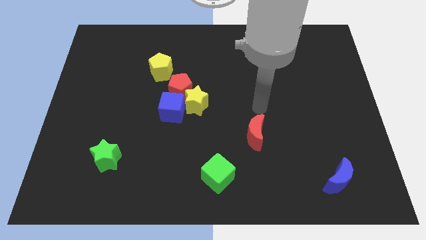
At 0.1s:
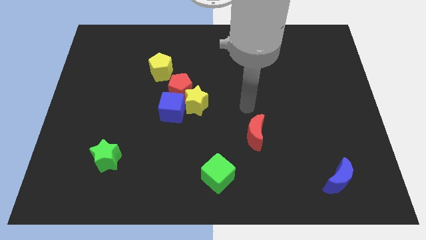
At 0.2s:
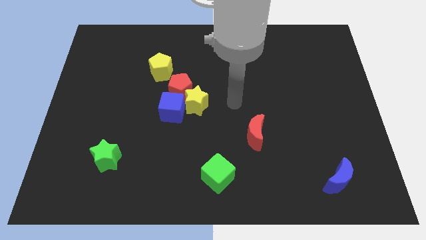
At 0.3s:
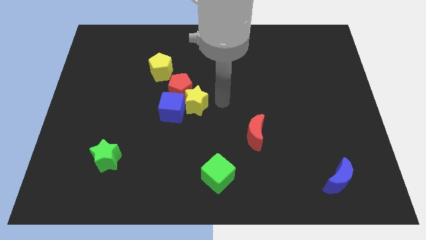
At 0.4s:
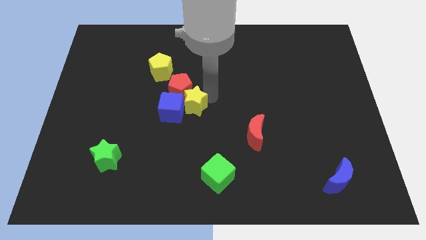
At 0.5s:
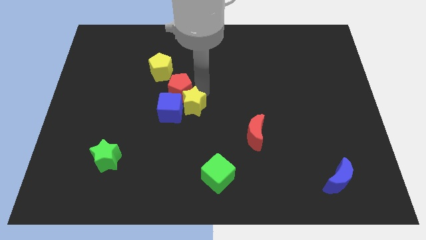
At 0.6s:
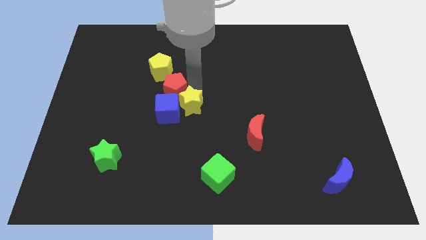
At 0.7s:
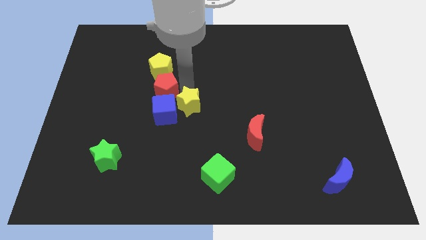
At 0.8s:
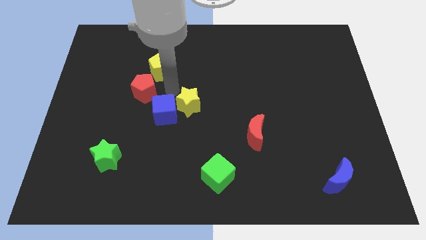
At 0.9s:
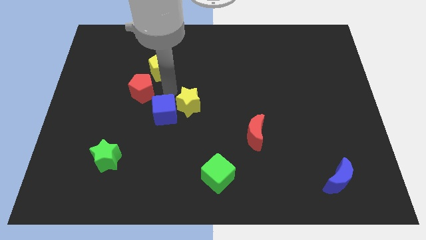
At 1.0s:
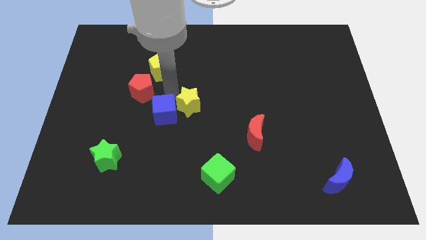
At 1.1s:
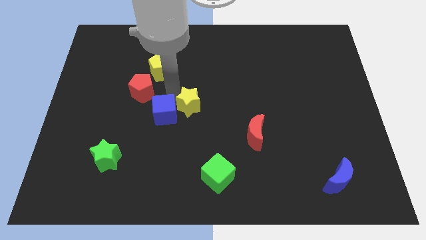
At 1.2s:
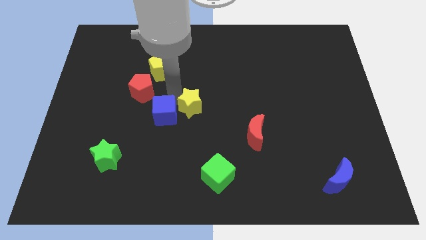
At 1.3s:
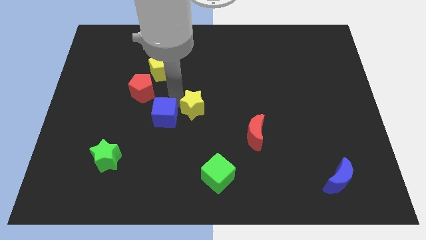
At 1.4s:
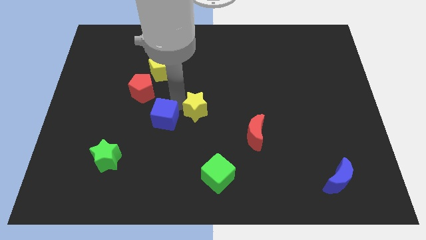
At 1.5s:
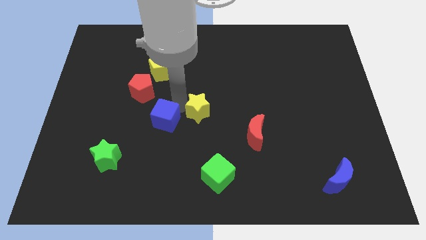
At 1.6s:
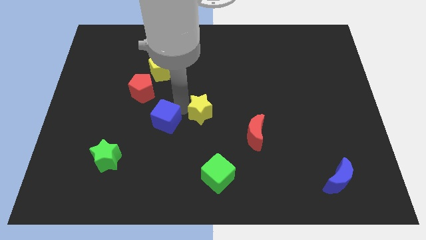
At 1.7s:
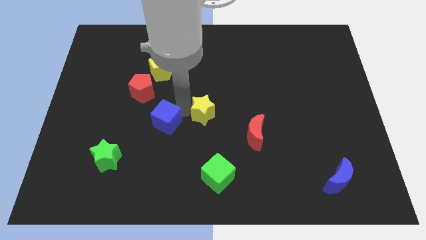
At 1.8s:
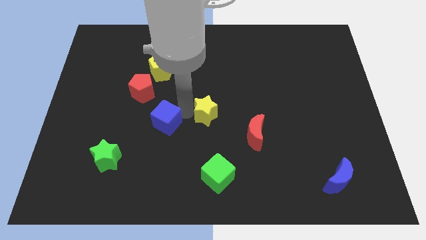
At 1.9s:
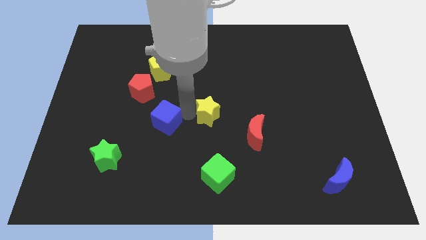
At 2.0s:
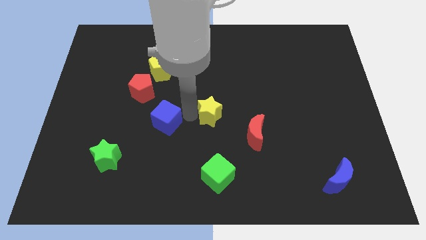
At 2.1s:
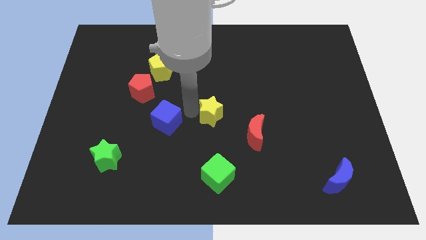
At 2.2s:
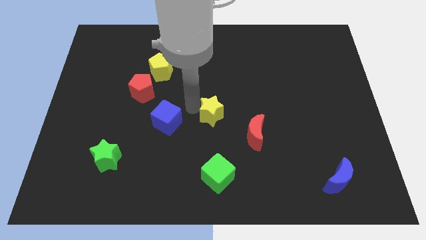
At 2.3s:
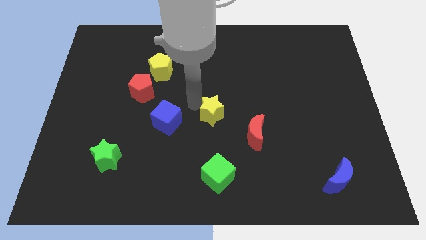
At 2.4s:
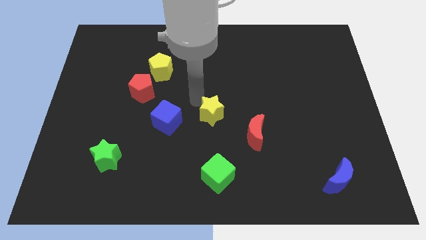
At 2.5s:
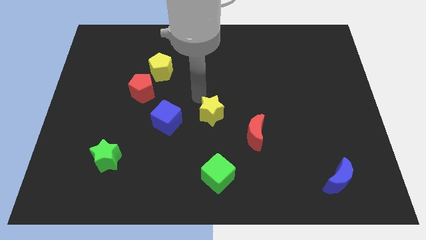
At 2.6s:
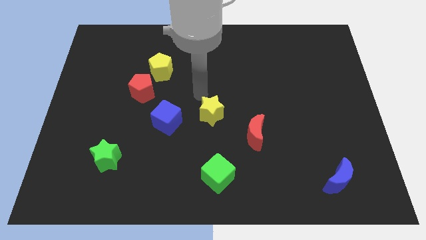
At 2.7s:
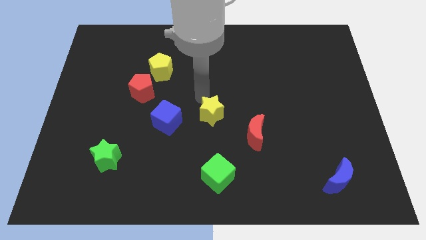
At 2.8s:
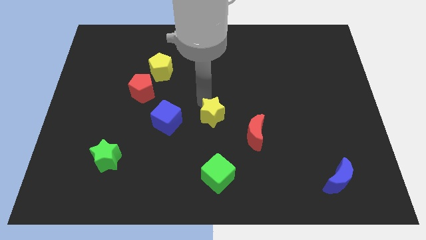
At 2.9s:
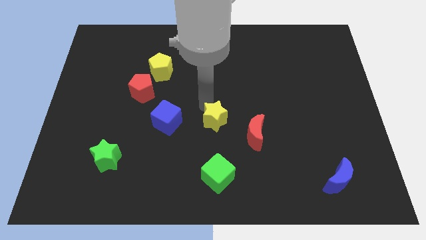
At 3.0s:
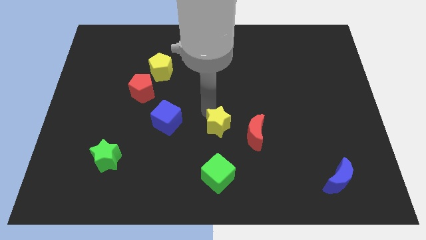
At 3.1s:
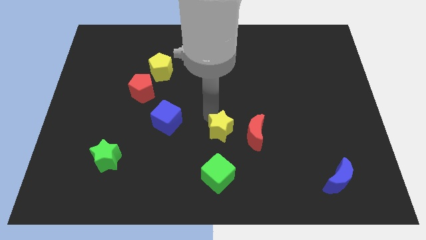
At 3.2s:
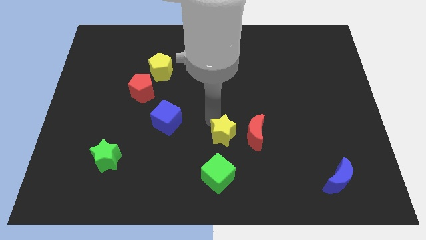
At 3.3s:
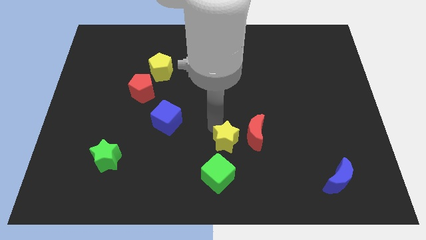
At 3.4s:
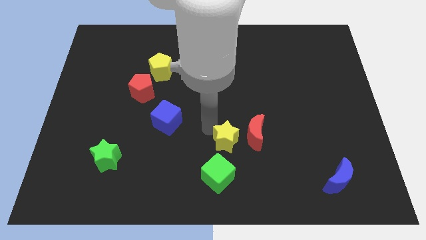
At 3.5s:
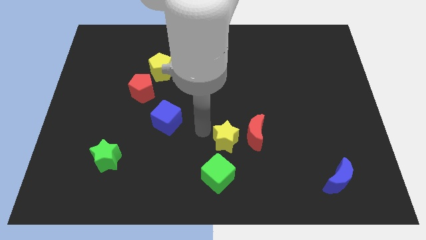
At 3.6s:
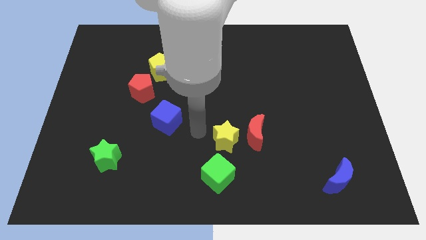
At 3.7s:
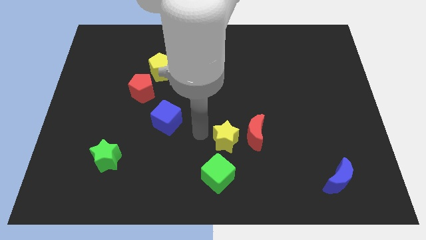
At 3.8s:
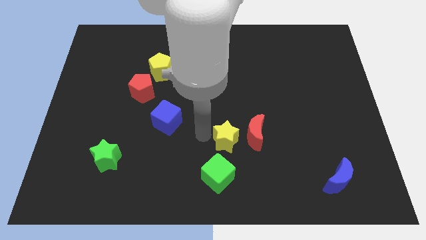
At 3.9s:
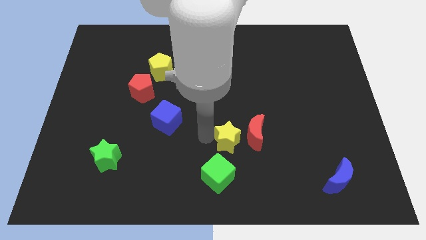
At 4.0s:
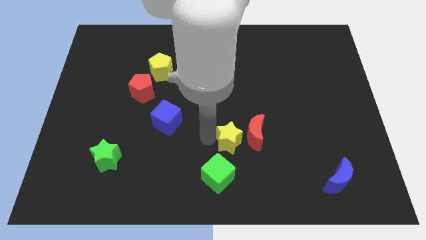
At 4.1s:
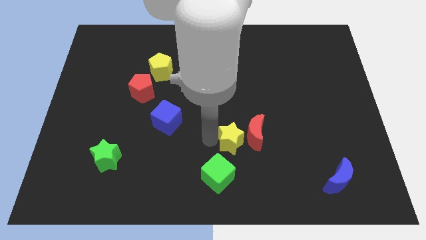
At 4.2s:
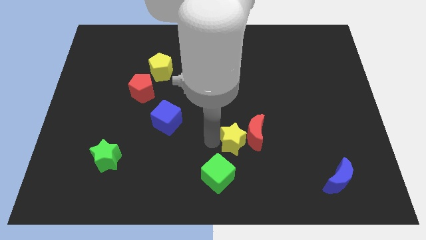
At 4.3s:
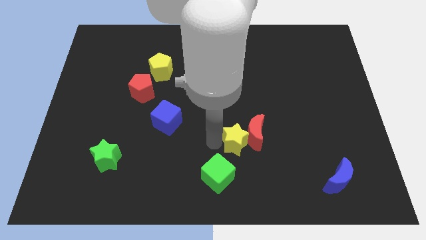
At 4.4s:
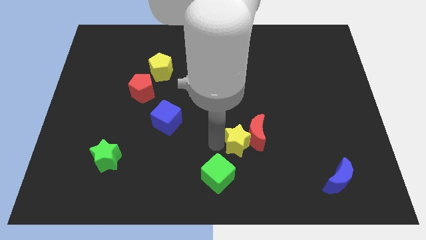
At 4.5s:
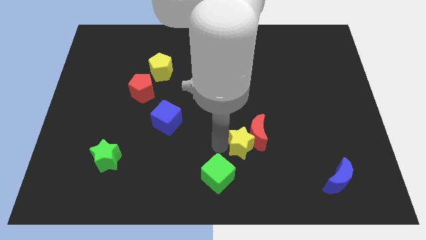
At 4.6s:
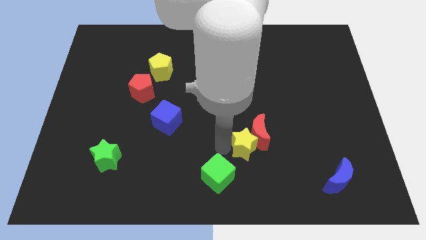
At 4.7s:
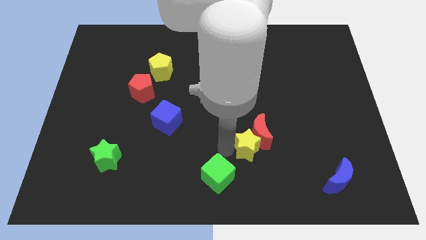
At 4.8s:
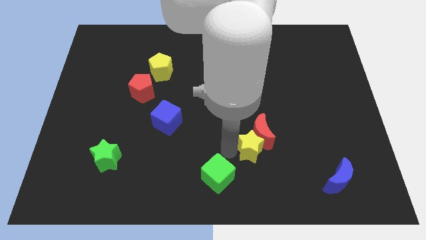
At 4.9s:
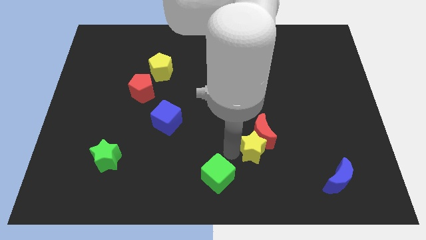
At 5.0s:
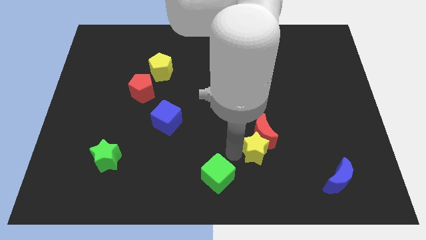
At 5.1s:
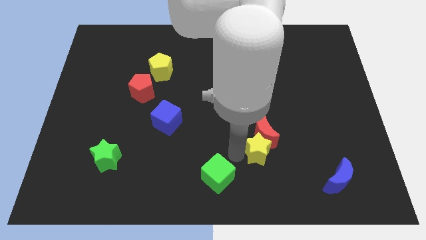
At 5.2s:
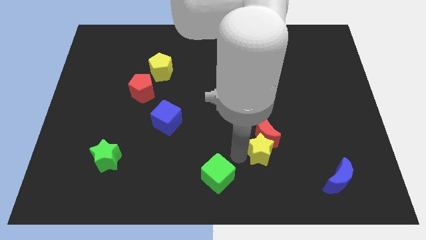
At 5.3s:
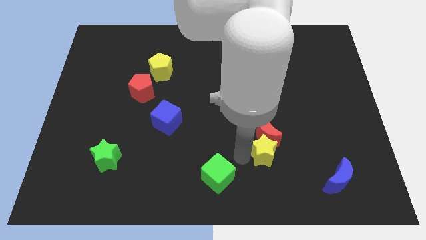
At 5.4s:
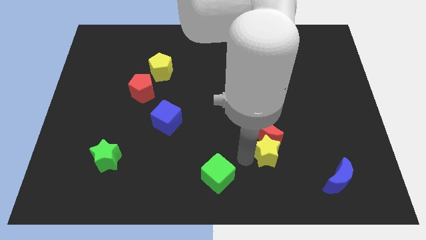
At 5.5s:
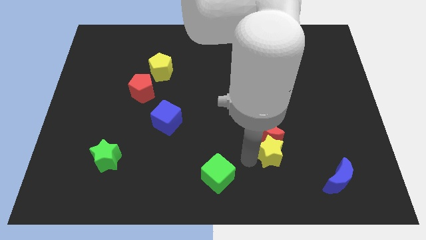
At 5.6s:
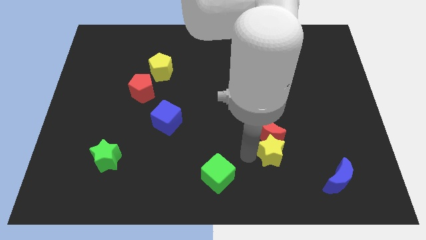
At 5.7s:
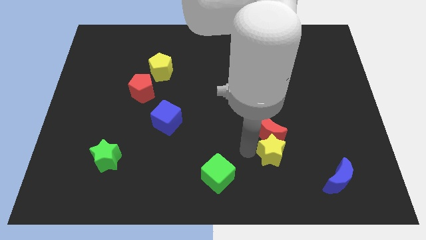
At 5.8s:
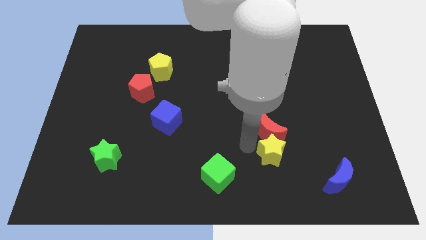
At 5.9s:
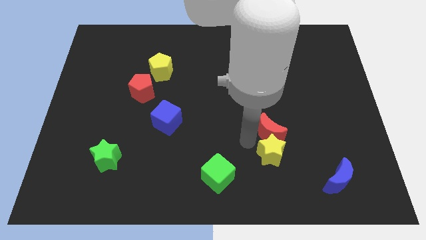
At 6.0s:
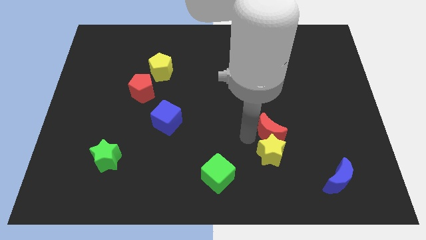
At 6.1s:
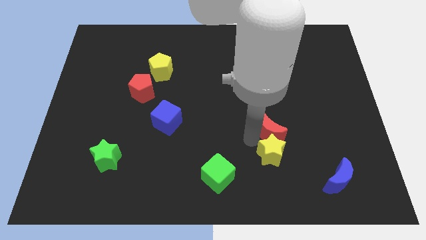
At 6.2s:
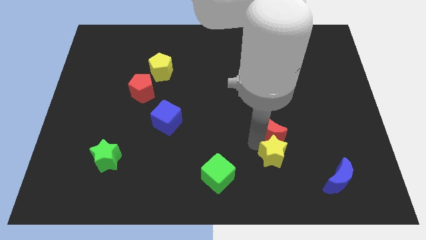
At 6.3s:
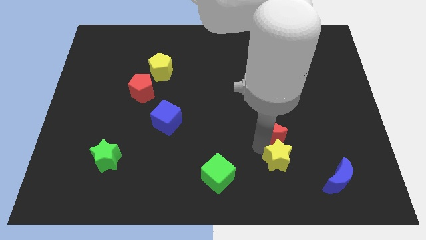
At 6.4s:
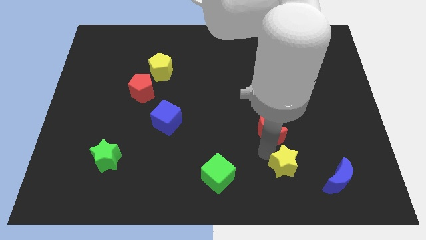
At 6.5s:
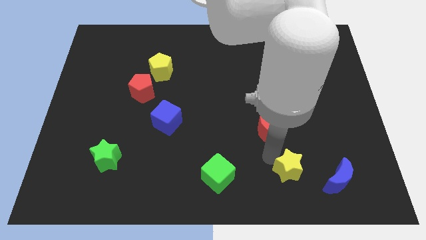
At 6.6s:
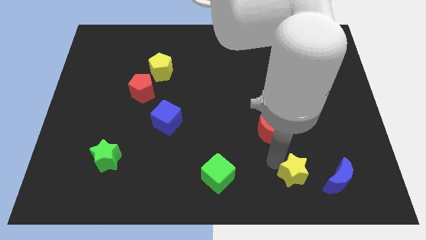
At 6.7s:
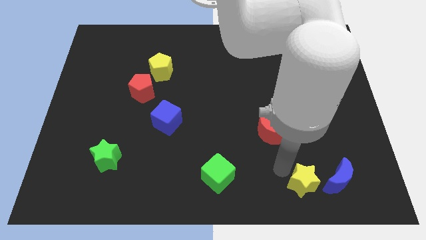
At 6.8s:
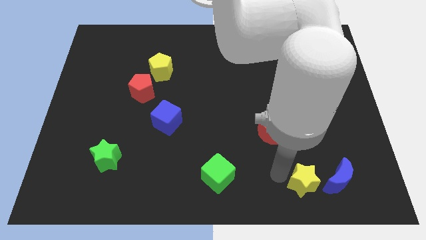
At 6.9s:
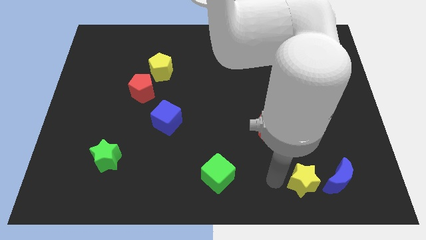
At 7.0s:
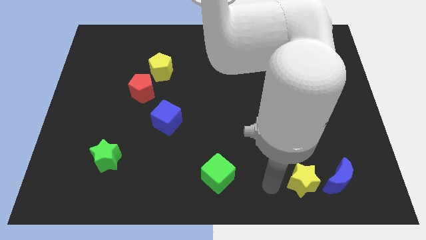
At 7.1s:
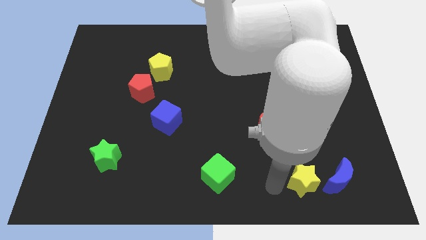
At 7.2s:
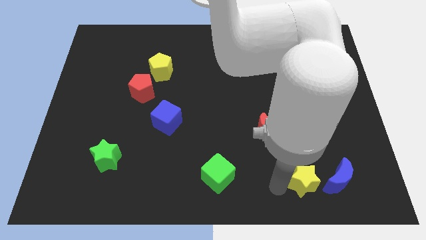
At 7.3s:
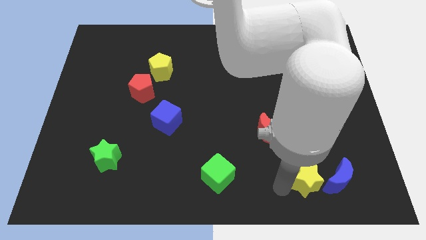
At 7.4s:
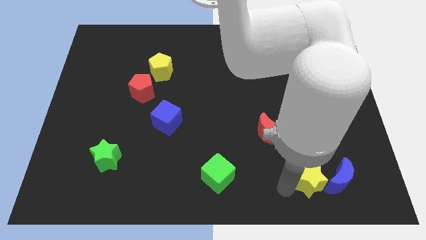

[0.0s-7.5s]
put the yellow star towards the blue moon

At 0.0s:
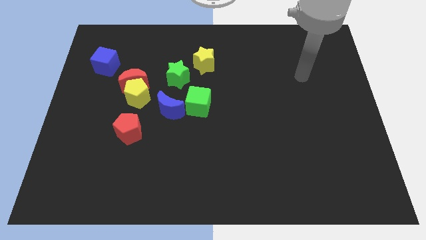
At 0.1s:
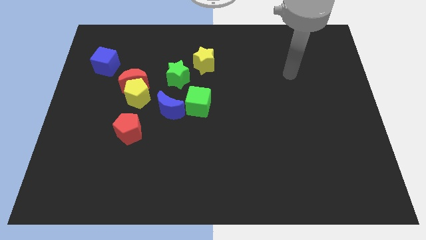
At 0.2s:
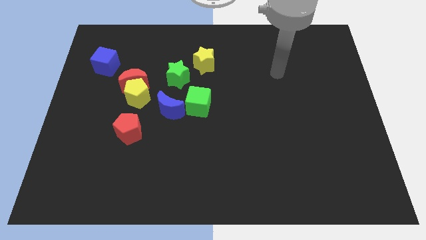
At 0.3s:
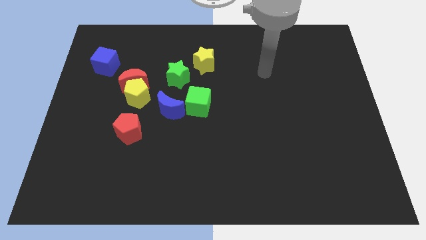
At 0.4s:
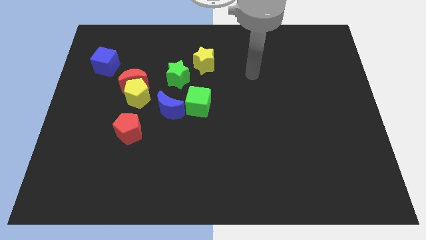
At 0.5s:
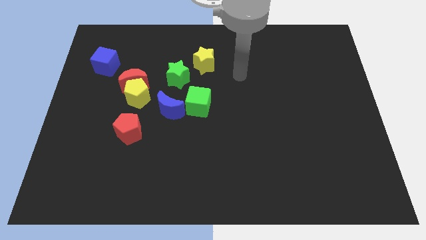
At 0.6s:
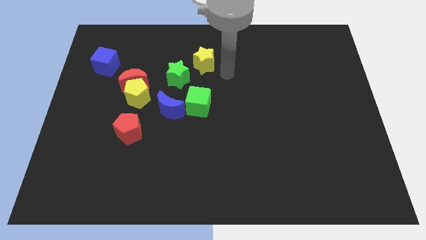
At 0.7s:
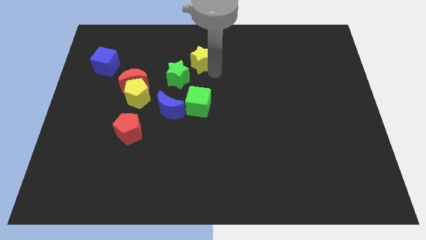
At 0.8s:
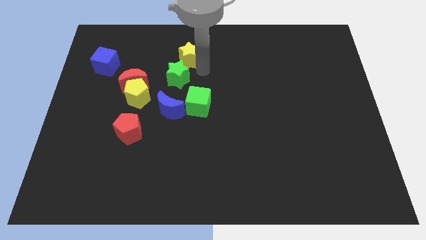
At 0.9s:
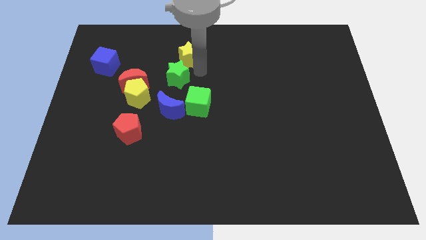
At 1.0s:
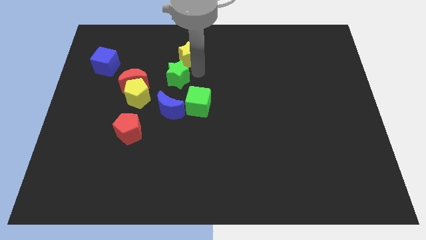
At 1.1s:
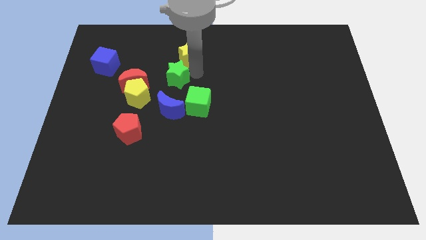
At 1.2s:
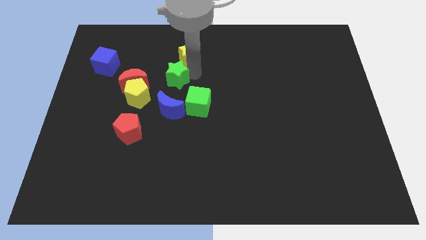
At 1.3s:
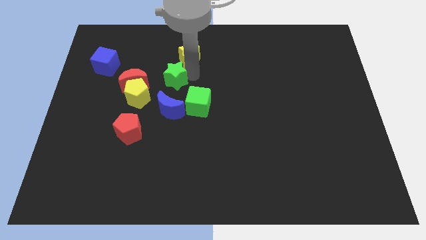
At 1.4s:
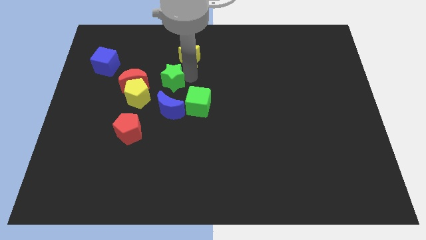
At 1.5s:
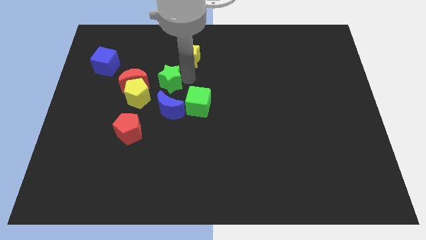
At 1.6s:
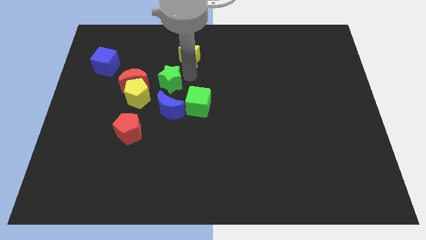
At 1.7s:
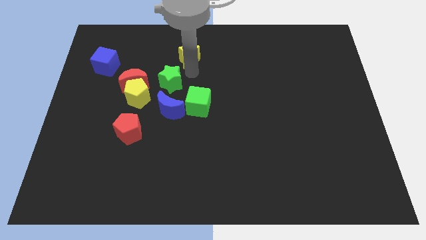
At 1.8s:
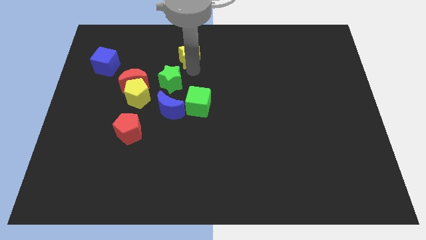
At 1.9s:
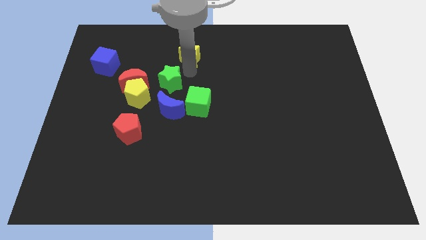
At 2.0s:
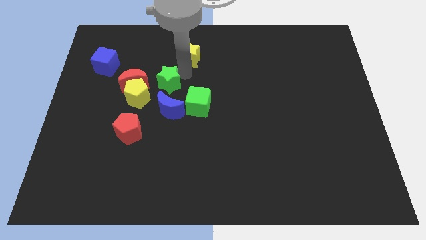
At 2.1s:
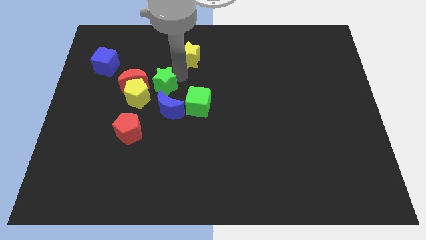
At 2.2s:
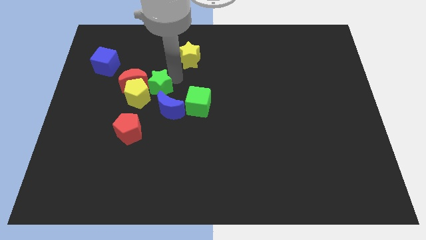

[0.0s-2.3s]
slide the green star towards the yellow pentagon
